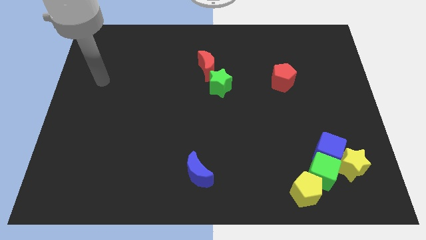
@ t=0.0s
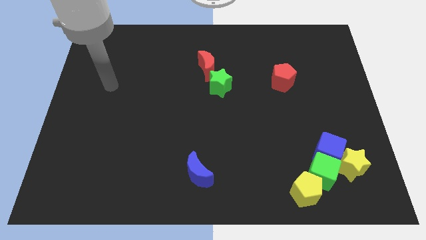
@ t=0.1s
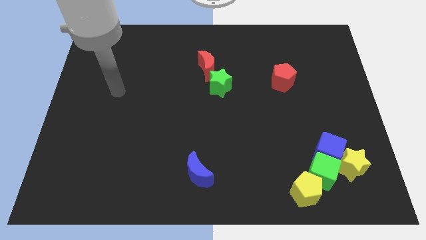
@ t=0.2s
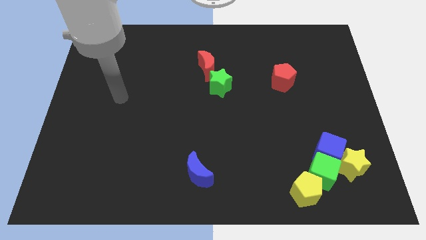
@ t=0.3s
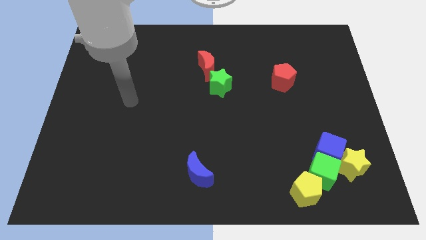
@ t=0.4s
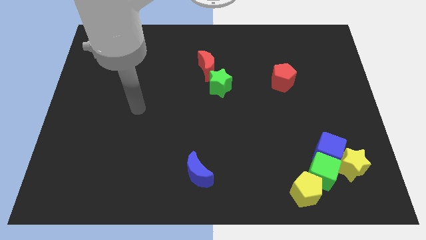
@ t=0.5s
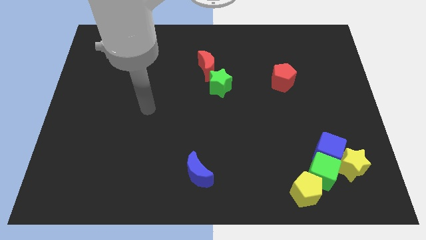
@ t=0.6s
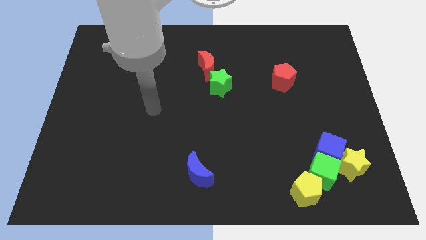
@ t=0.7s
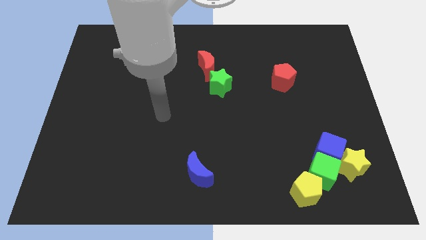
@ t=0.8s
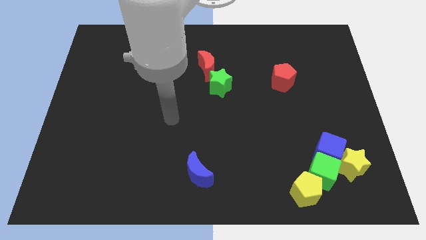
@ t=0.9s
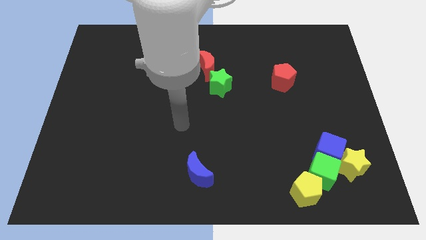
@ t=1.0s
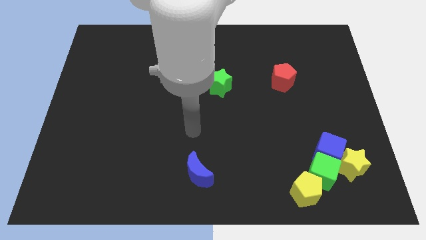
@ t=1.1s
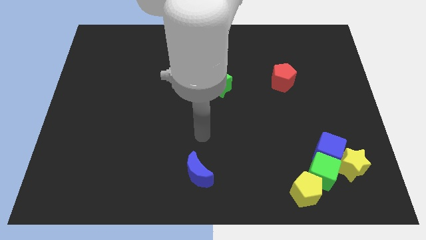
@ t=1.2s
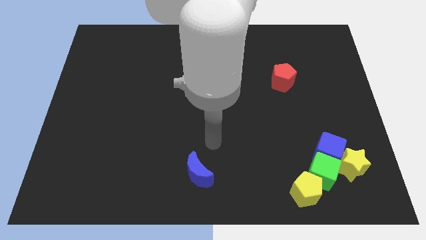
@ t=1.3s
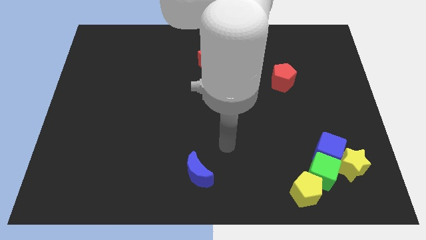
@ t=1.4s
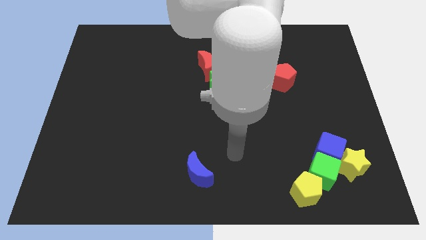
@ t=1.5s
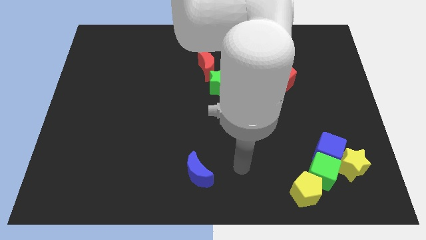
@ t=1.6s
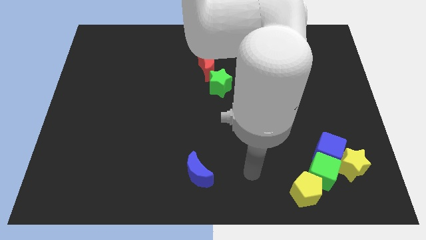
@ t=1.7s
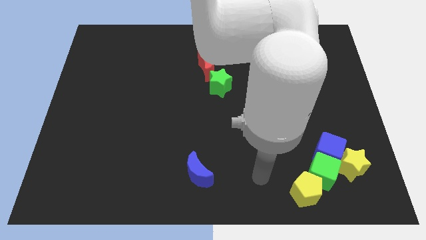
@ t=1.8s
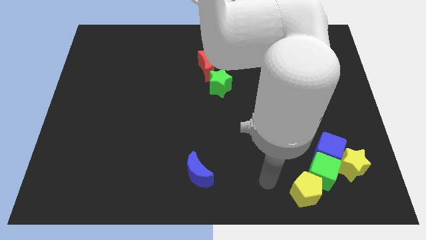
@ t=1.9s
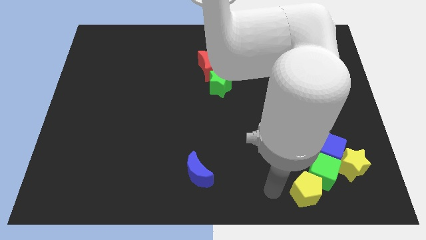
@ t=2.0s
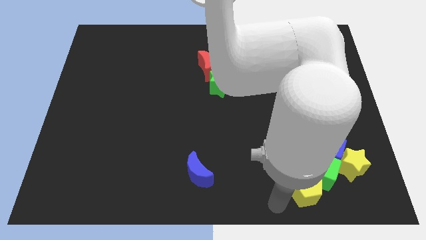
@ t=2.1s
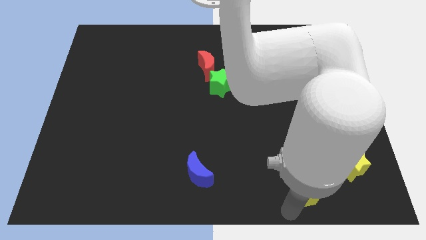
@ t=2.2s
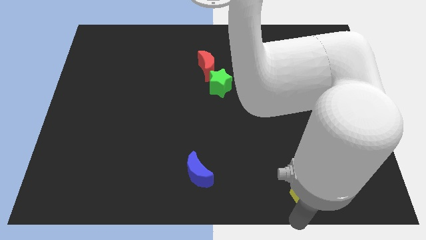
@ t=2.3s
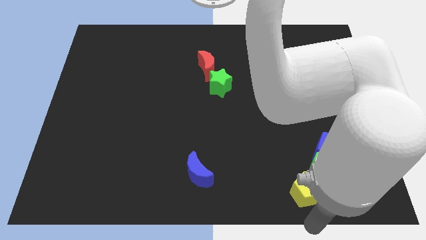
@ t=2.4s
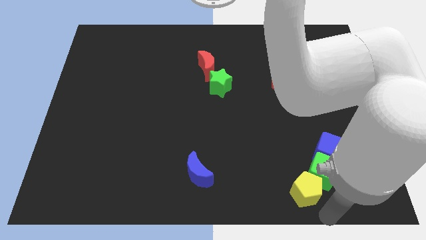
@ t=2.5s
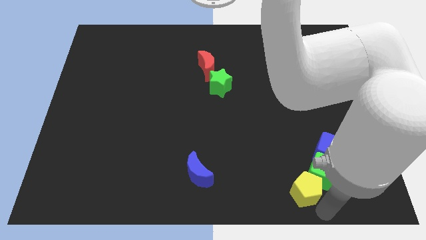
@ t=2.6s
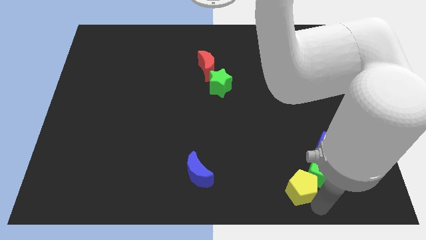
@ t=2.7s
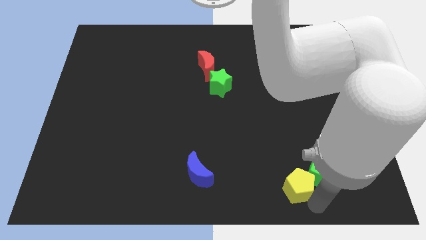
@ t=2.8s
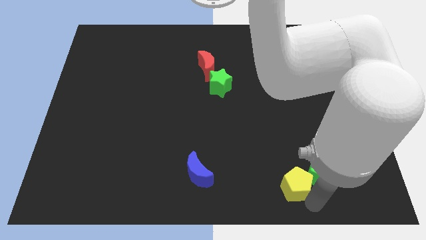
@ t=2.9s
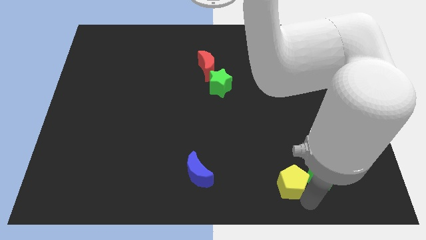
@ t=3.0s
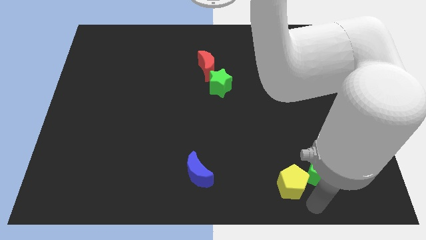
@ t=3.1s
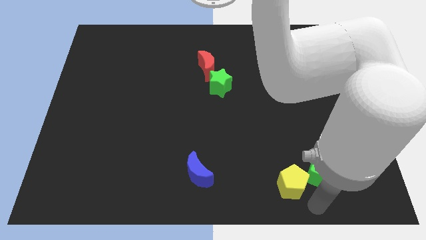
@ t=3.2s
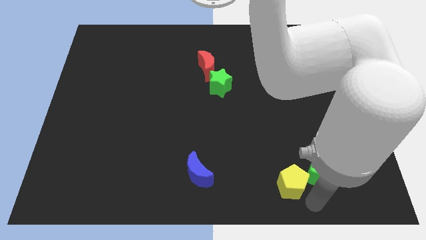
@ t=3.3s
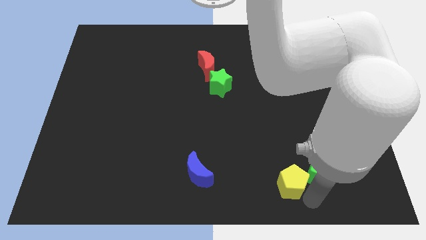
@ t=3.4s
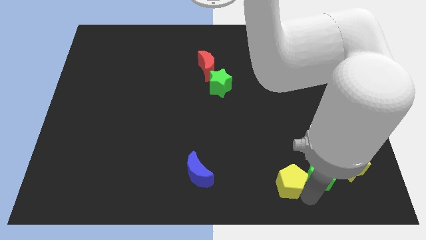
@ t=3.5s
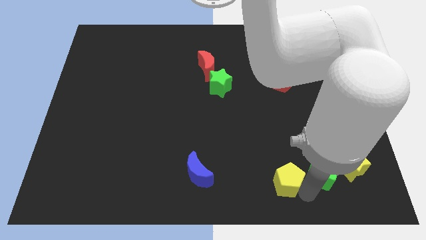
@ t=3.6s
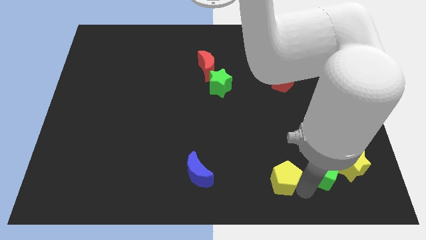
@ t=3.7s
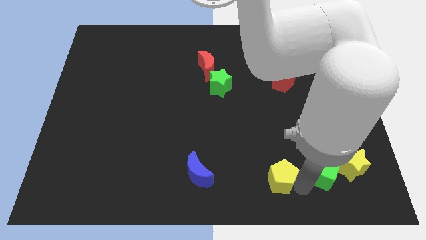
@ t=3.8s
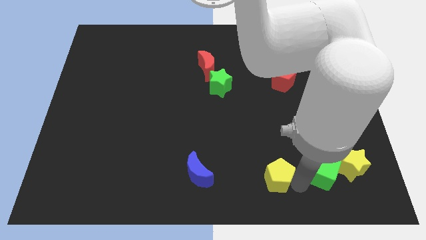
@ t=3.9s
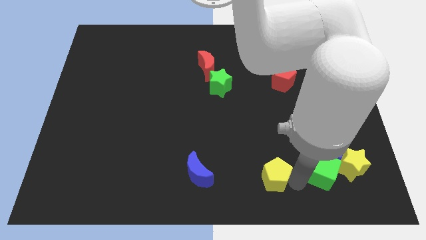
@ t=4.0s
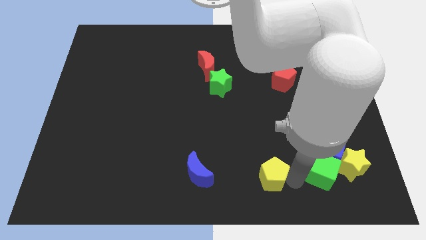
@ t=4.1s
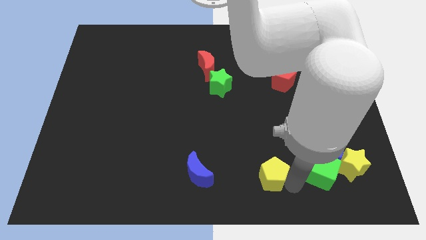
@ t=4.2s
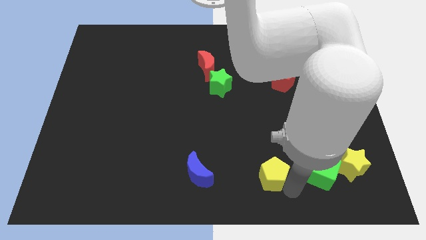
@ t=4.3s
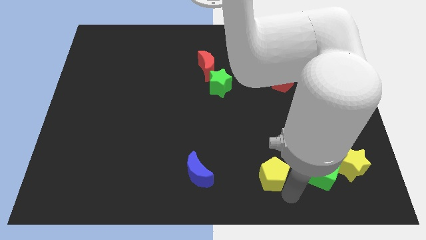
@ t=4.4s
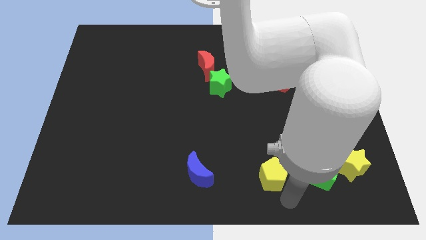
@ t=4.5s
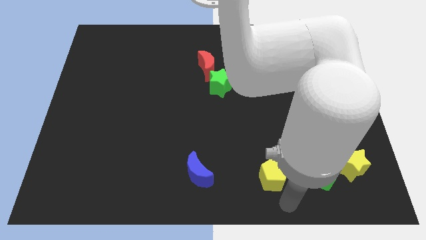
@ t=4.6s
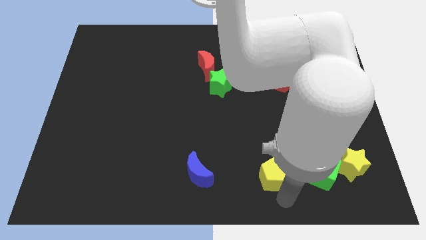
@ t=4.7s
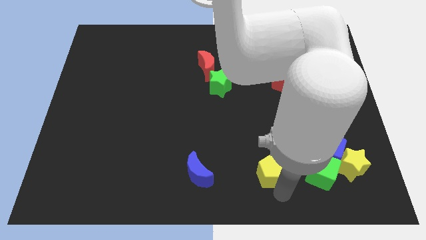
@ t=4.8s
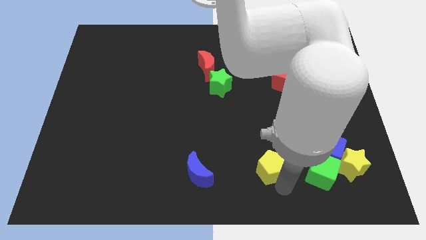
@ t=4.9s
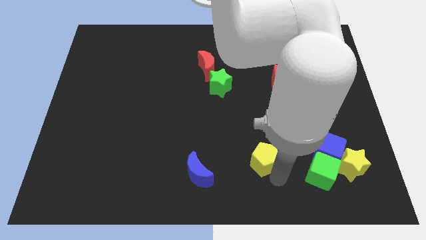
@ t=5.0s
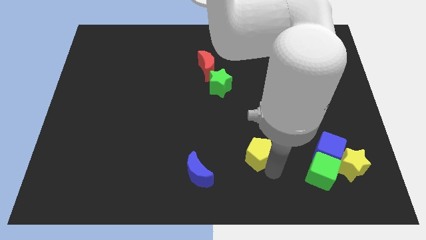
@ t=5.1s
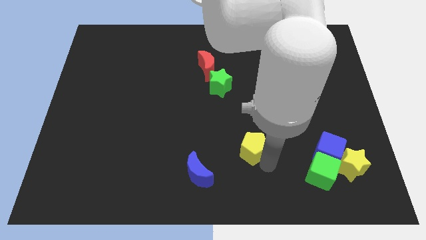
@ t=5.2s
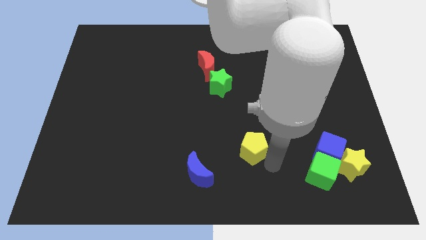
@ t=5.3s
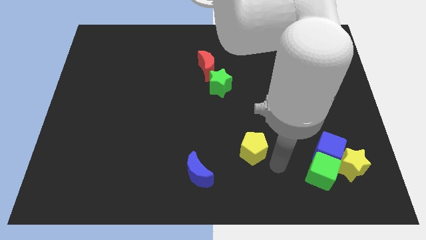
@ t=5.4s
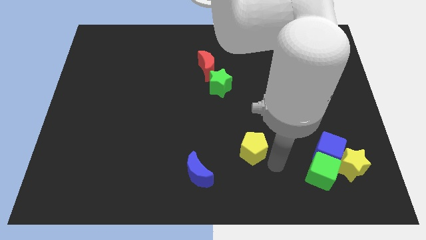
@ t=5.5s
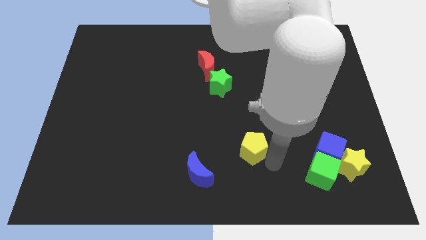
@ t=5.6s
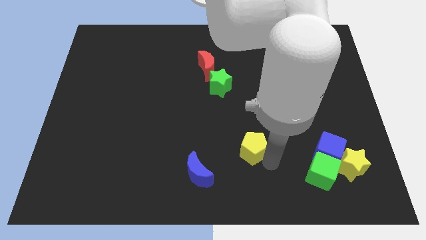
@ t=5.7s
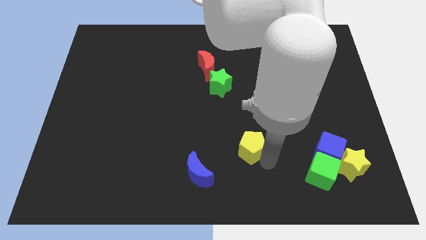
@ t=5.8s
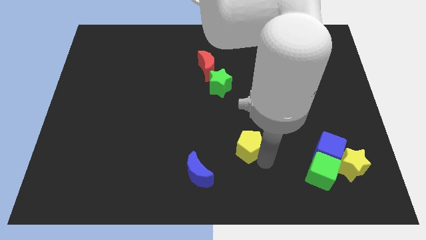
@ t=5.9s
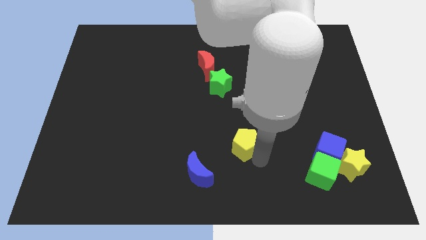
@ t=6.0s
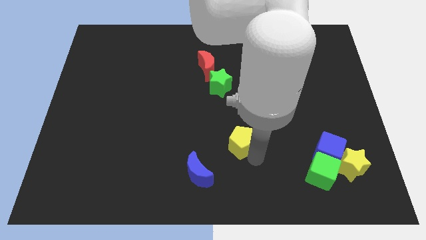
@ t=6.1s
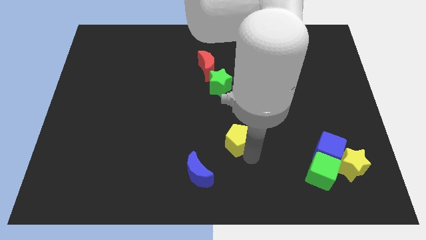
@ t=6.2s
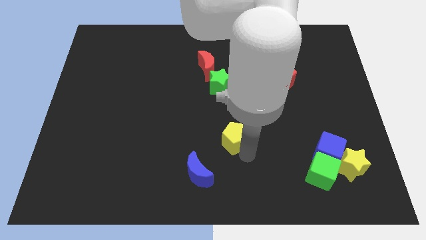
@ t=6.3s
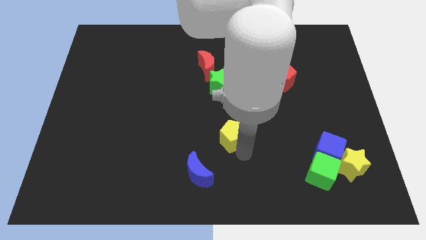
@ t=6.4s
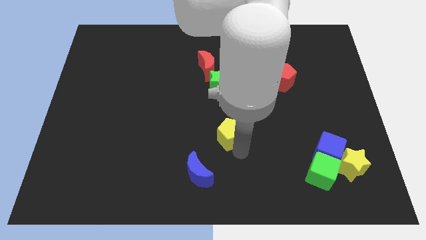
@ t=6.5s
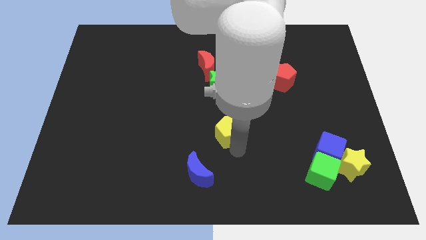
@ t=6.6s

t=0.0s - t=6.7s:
push the yellow pentagon diagonally up and left

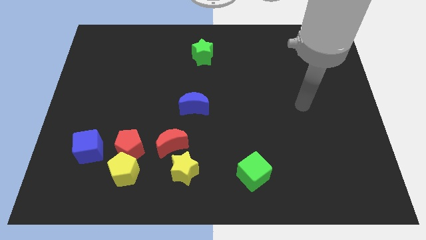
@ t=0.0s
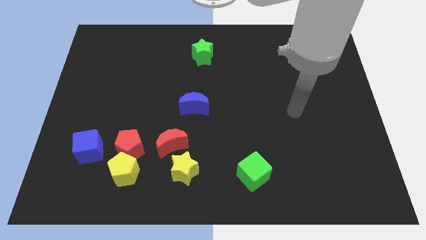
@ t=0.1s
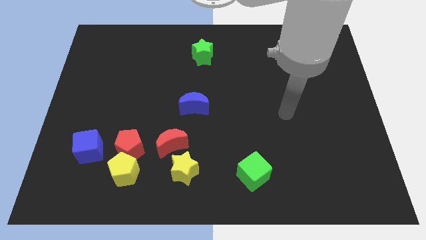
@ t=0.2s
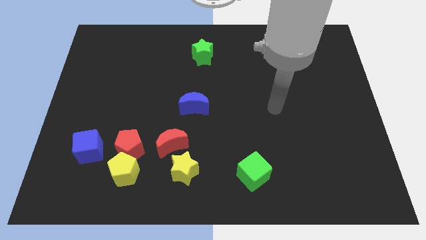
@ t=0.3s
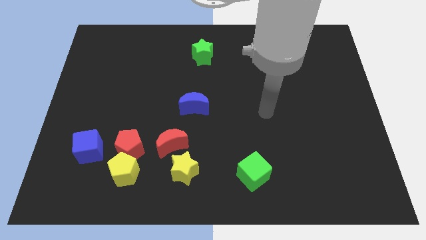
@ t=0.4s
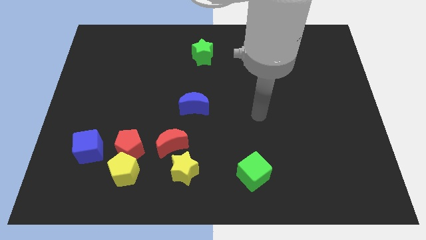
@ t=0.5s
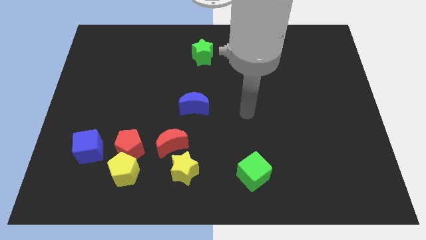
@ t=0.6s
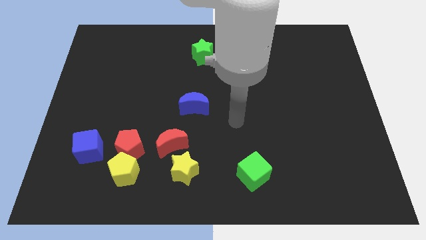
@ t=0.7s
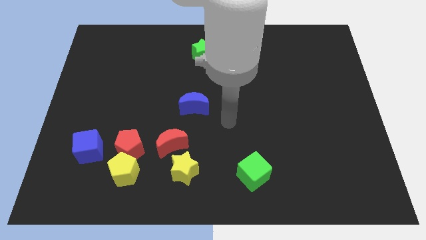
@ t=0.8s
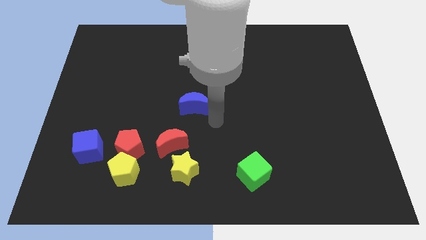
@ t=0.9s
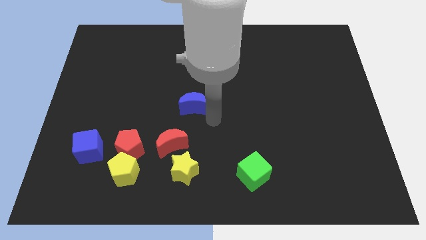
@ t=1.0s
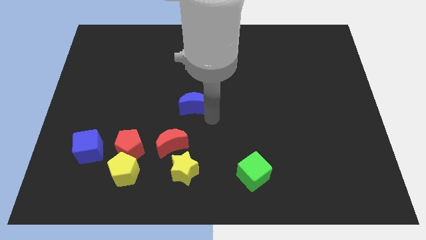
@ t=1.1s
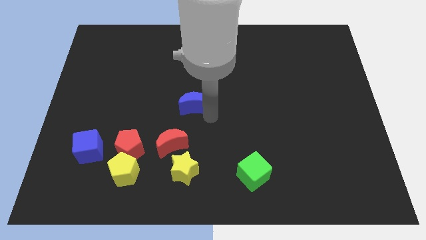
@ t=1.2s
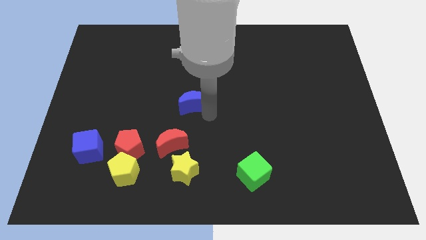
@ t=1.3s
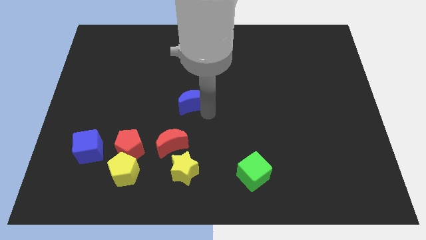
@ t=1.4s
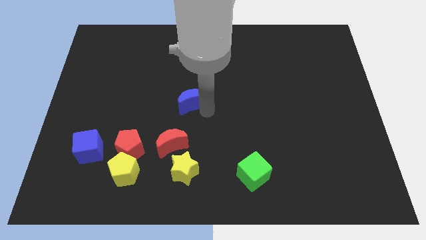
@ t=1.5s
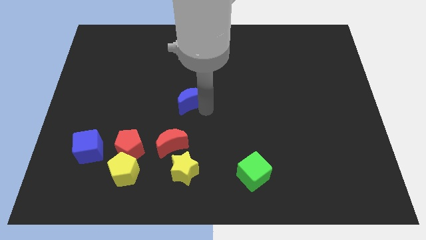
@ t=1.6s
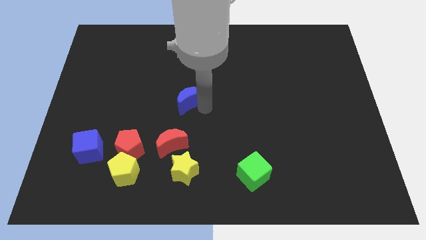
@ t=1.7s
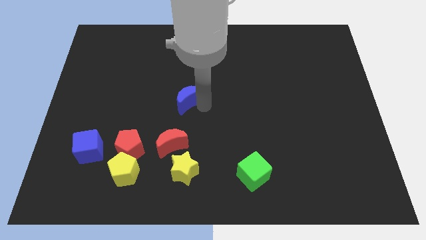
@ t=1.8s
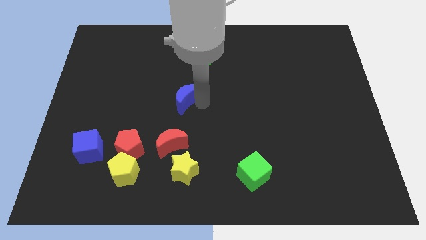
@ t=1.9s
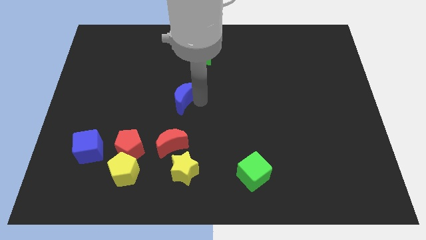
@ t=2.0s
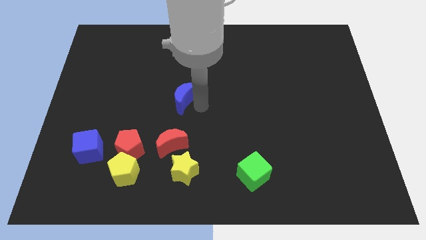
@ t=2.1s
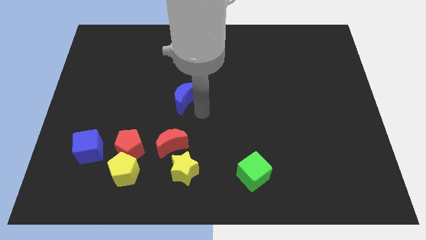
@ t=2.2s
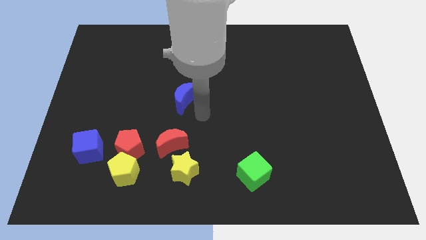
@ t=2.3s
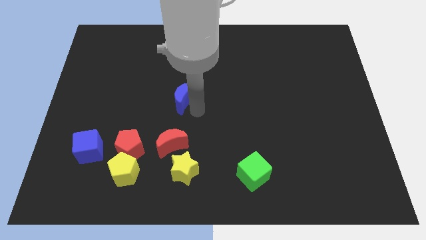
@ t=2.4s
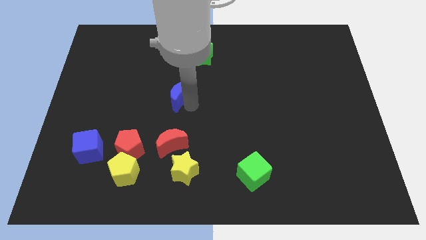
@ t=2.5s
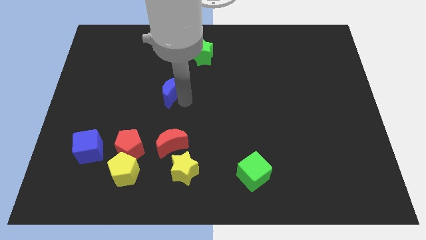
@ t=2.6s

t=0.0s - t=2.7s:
push the blue moon upwards and to the left diagonally a bit
